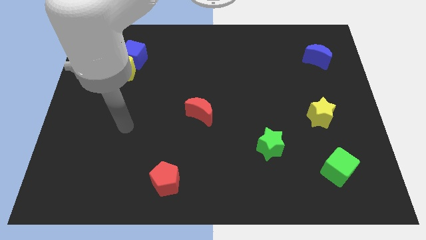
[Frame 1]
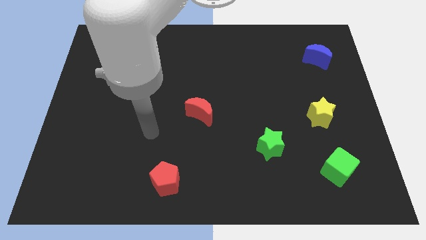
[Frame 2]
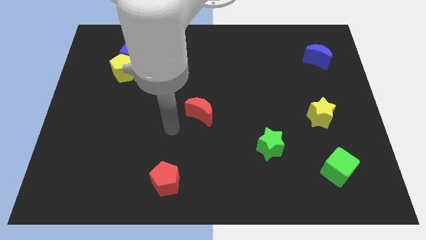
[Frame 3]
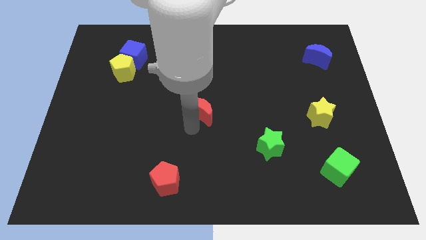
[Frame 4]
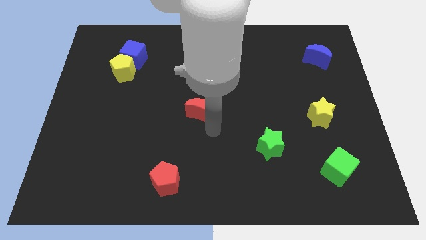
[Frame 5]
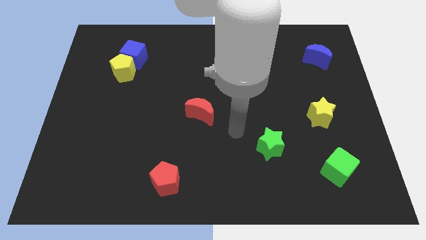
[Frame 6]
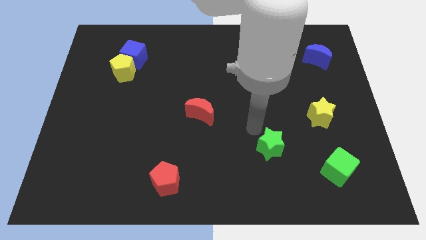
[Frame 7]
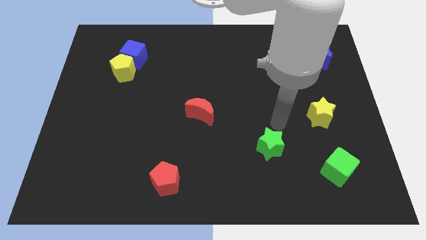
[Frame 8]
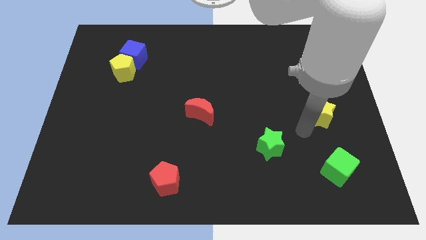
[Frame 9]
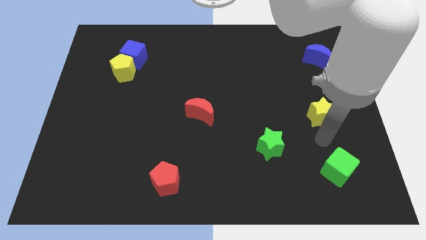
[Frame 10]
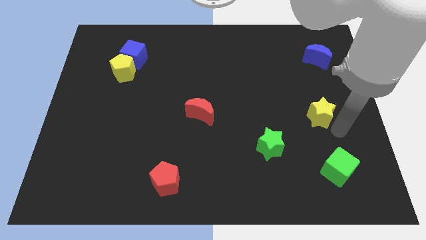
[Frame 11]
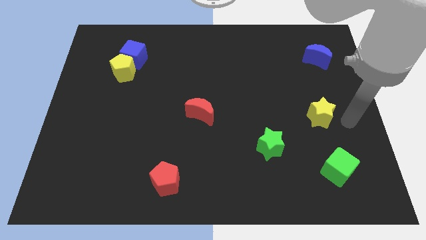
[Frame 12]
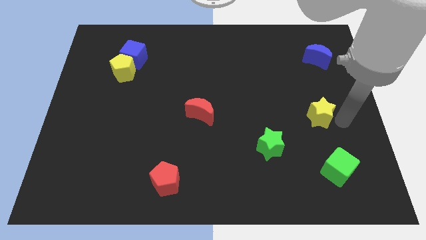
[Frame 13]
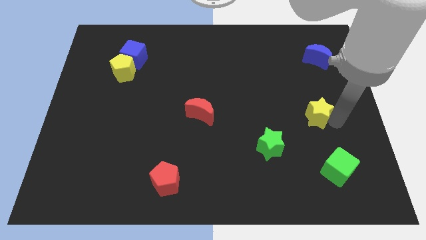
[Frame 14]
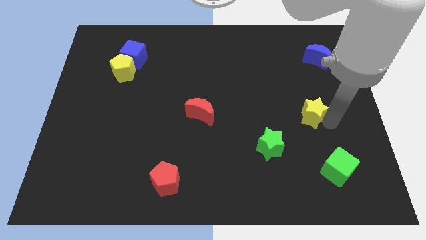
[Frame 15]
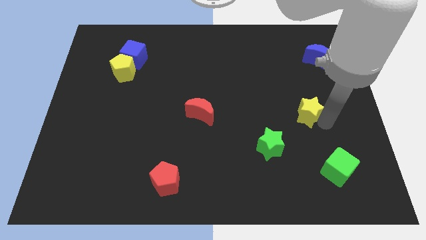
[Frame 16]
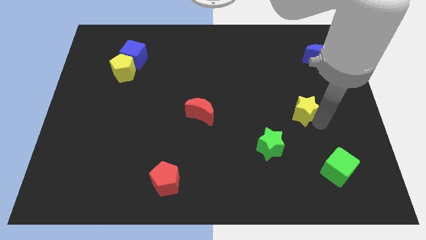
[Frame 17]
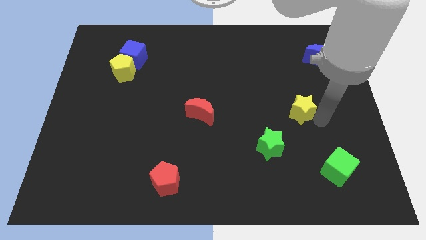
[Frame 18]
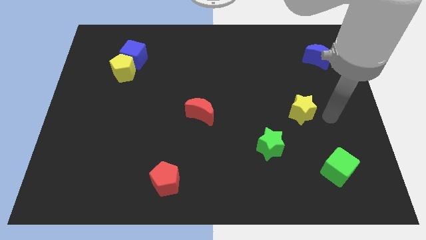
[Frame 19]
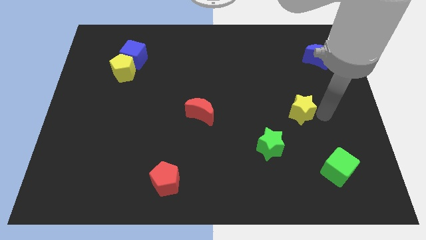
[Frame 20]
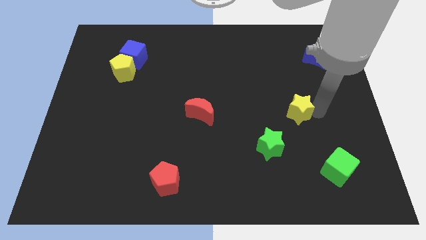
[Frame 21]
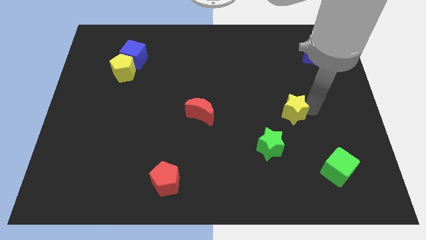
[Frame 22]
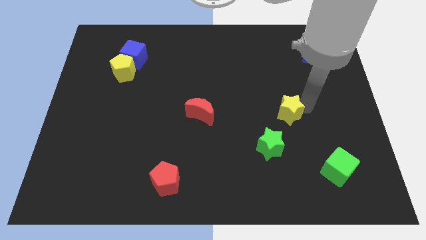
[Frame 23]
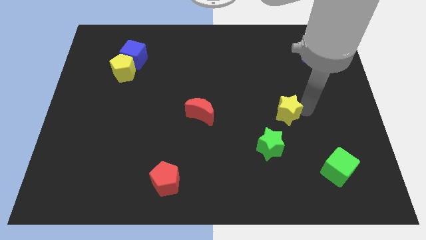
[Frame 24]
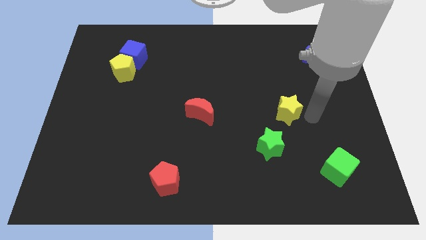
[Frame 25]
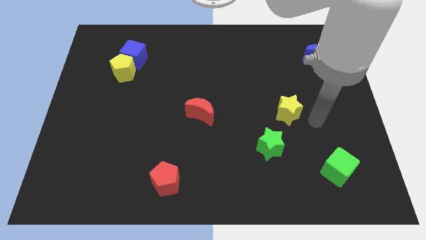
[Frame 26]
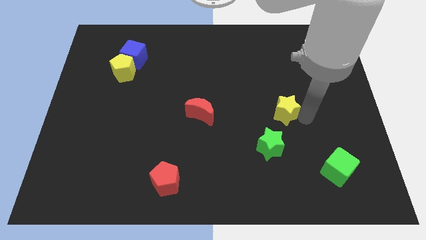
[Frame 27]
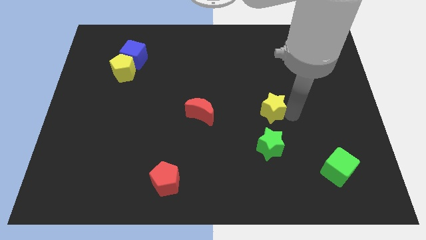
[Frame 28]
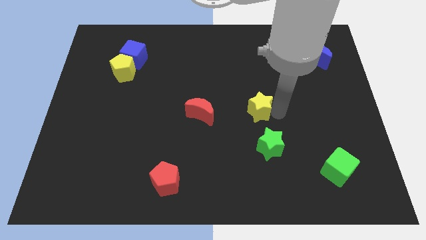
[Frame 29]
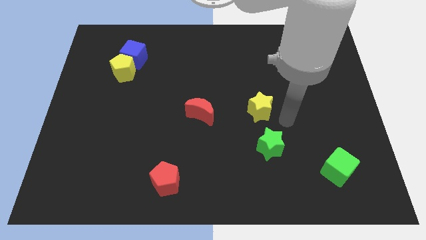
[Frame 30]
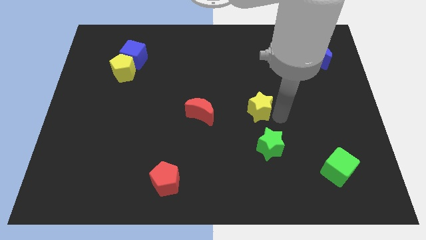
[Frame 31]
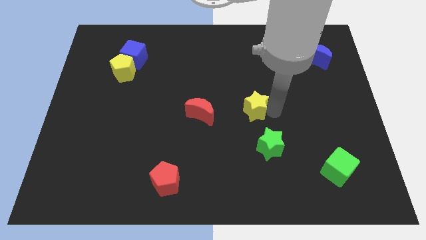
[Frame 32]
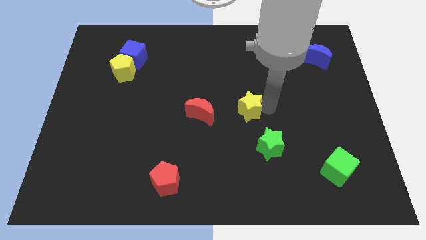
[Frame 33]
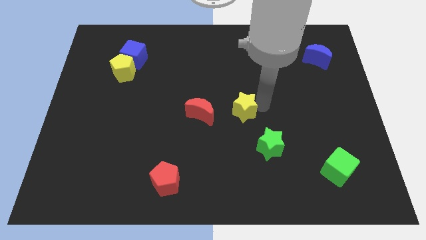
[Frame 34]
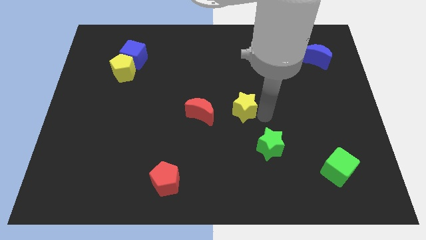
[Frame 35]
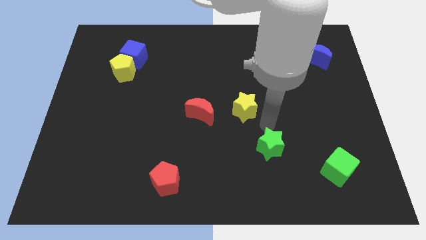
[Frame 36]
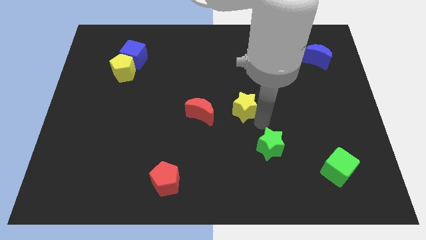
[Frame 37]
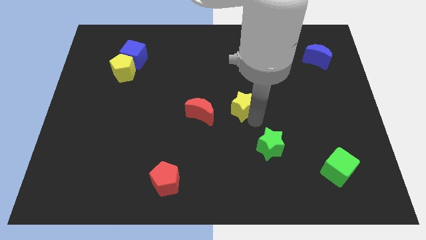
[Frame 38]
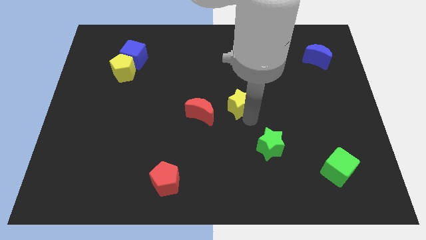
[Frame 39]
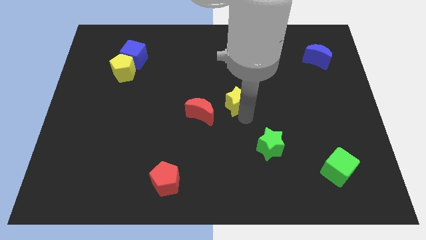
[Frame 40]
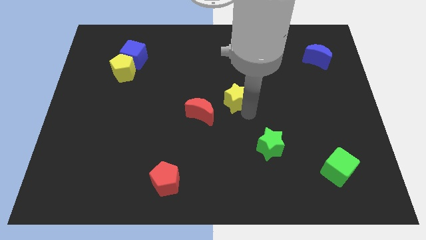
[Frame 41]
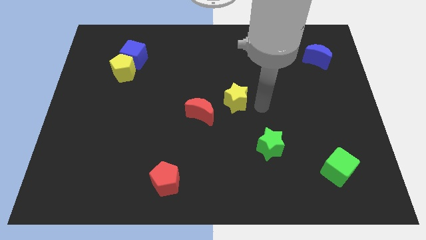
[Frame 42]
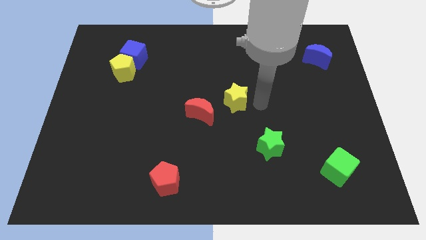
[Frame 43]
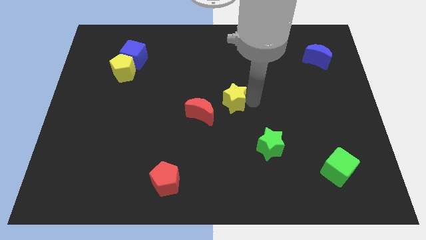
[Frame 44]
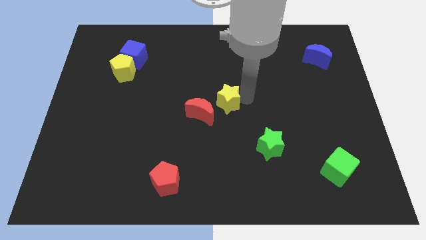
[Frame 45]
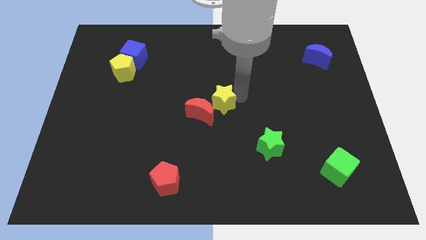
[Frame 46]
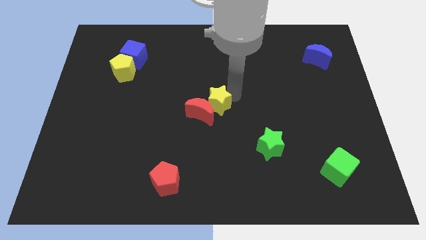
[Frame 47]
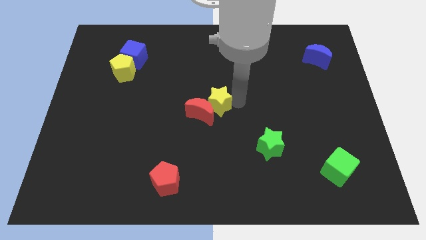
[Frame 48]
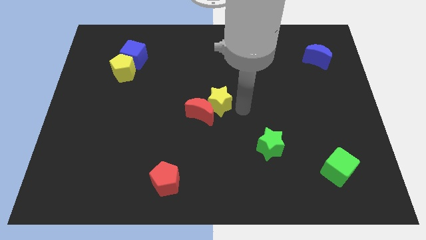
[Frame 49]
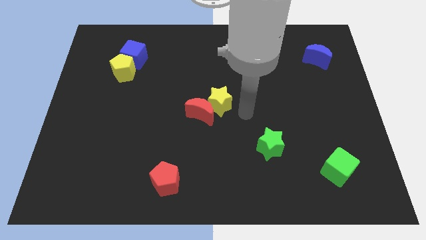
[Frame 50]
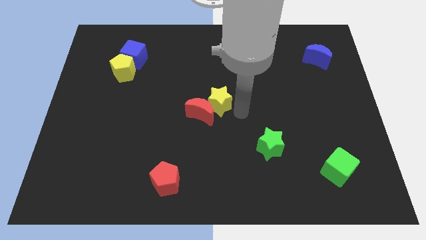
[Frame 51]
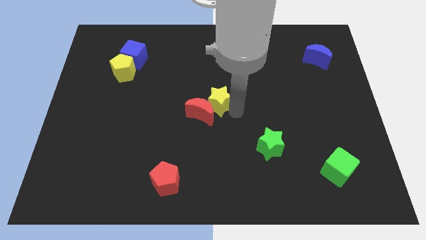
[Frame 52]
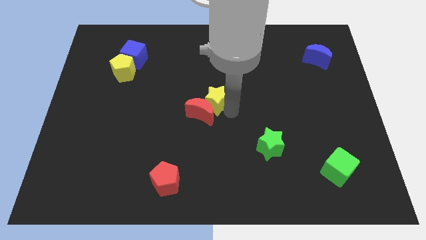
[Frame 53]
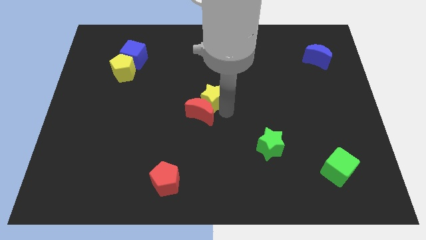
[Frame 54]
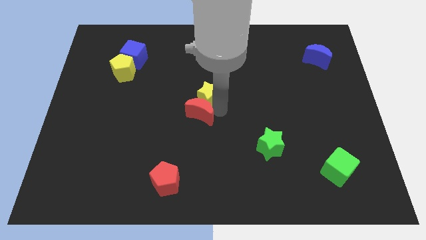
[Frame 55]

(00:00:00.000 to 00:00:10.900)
move the yellow star diagonally up and to the left of the red moon

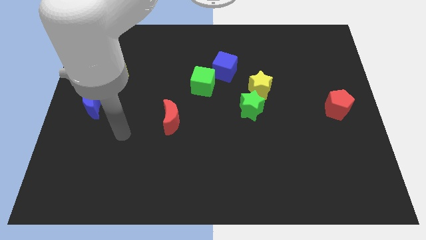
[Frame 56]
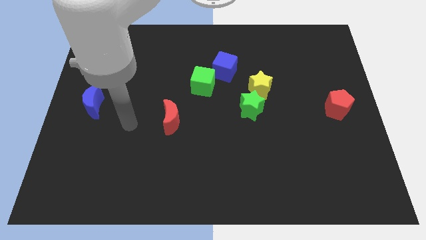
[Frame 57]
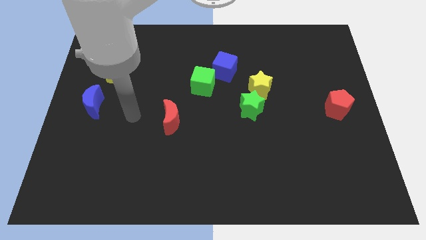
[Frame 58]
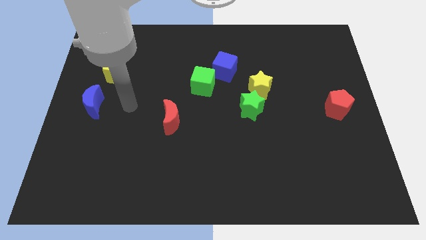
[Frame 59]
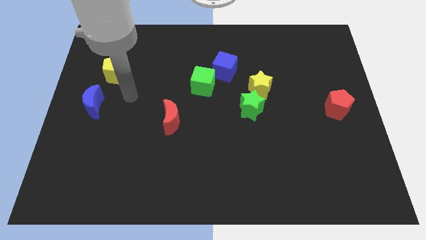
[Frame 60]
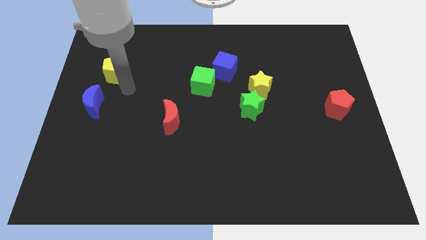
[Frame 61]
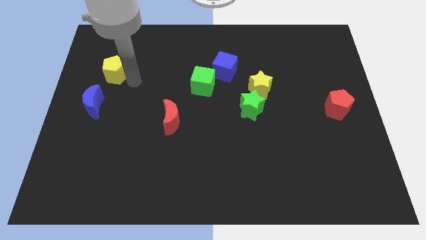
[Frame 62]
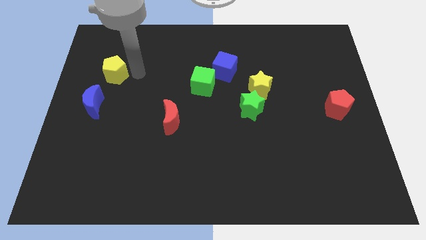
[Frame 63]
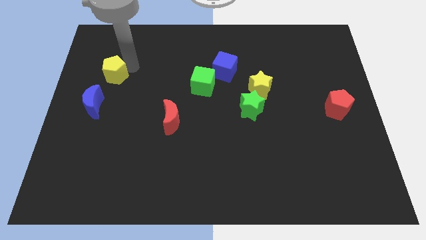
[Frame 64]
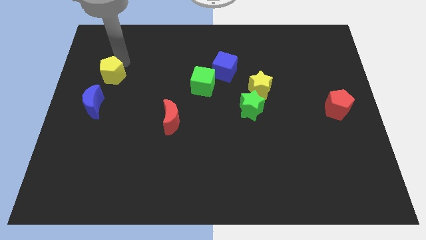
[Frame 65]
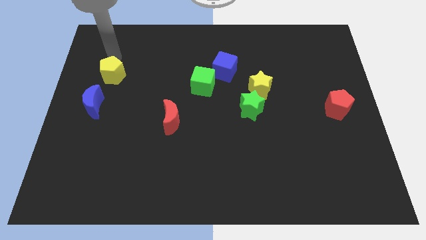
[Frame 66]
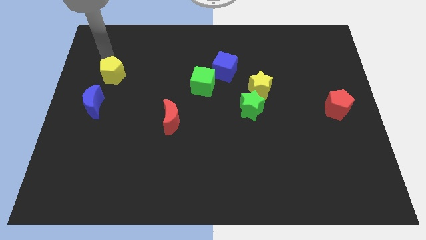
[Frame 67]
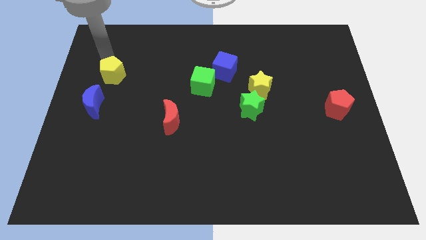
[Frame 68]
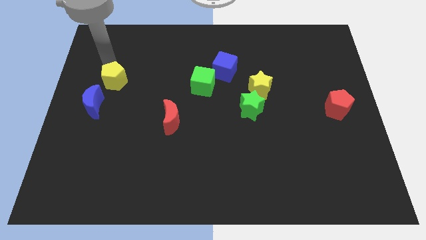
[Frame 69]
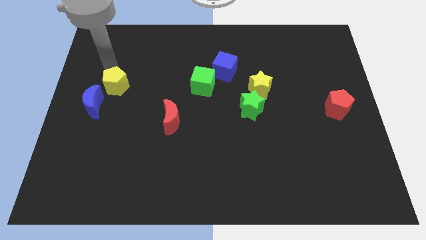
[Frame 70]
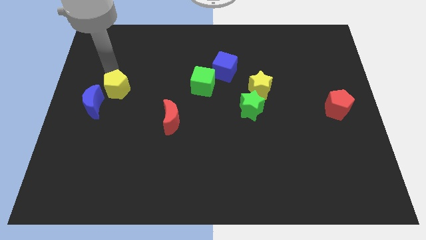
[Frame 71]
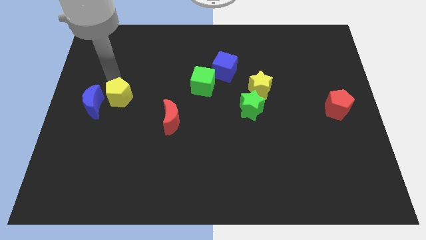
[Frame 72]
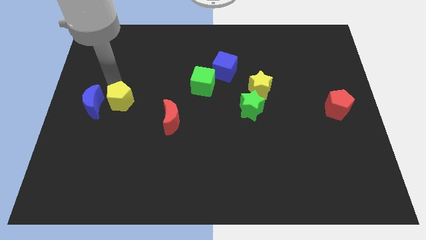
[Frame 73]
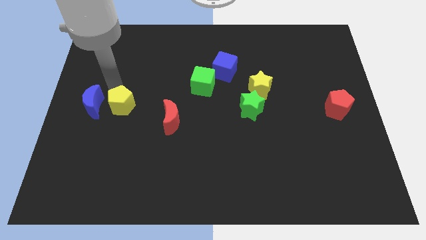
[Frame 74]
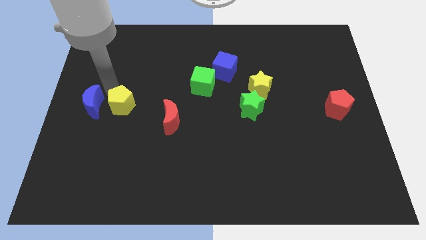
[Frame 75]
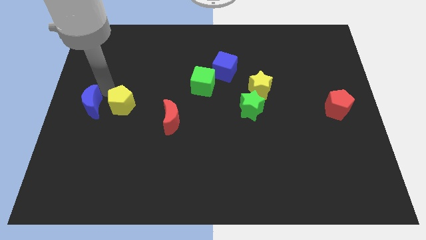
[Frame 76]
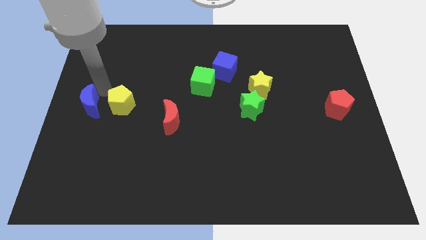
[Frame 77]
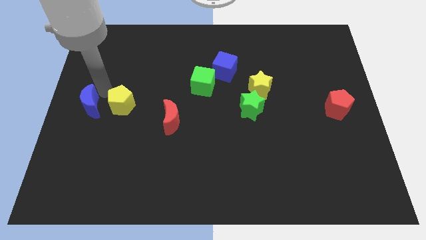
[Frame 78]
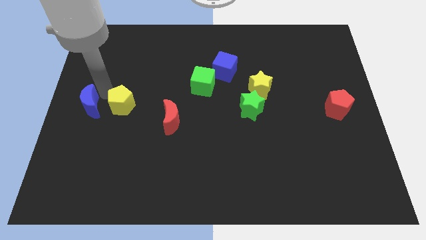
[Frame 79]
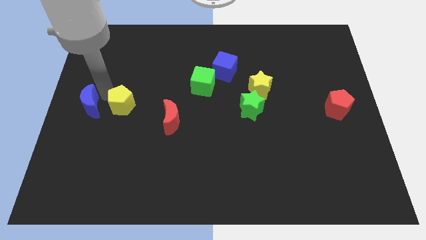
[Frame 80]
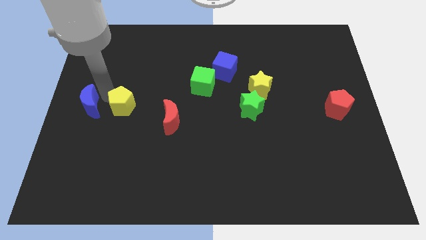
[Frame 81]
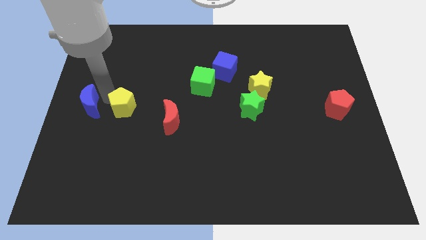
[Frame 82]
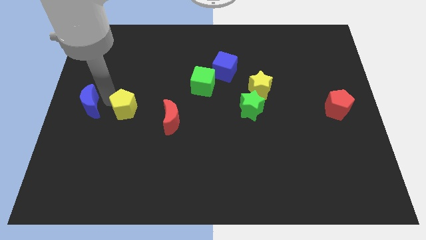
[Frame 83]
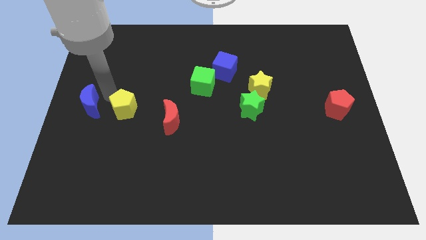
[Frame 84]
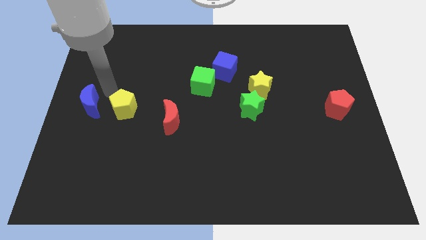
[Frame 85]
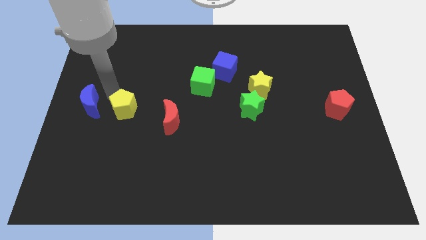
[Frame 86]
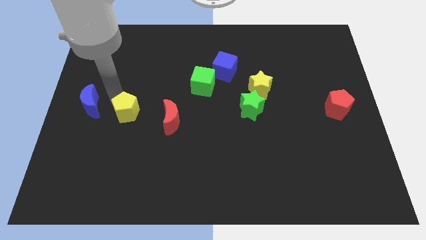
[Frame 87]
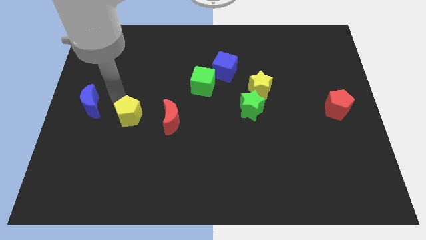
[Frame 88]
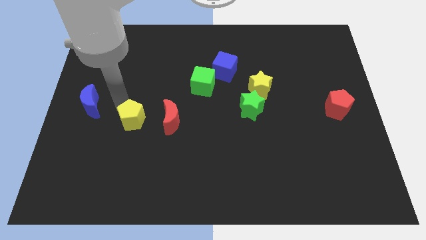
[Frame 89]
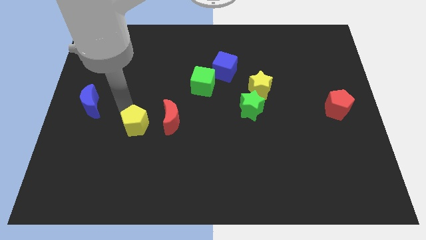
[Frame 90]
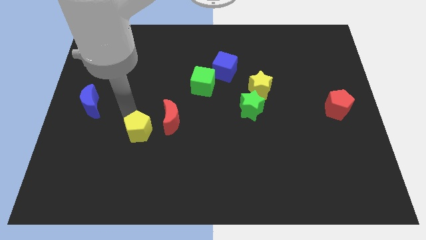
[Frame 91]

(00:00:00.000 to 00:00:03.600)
slide the yellow pentagon to the bottom left of the red moon
